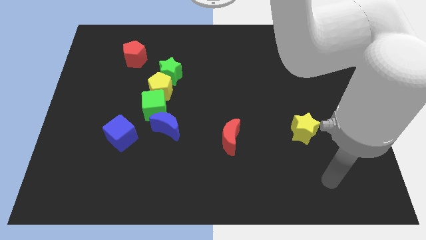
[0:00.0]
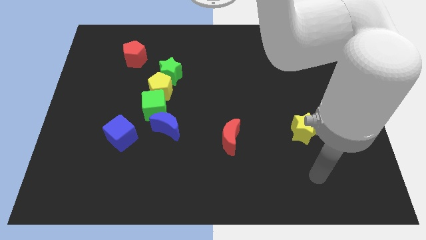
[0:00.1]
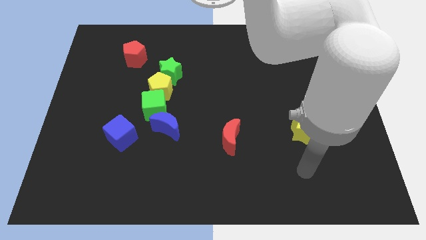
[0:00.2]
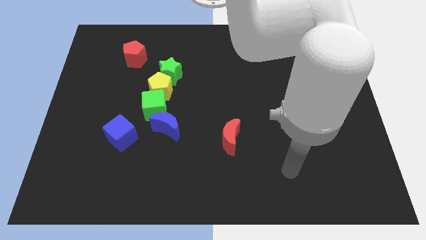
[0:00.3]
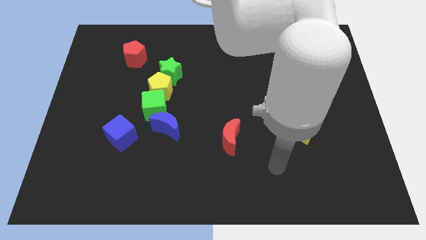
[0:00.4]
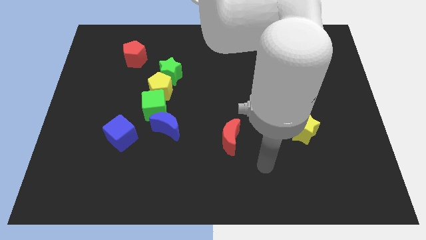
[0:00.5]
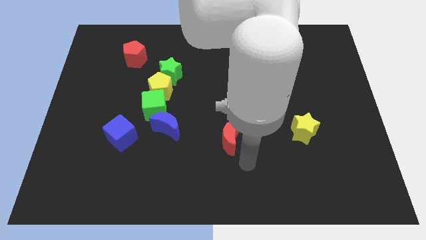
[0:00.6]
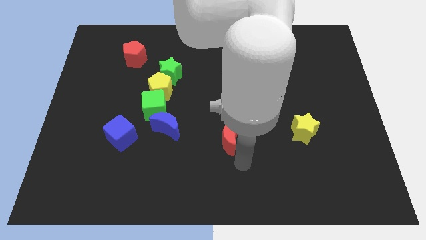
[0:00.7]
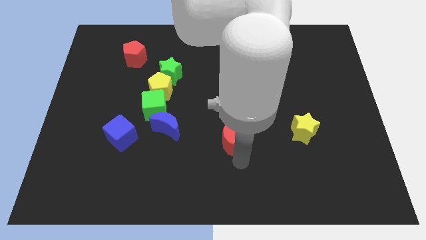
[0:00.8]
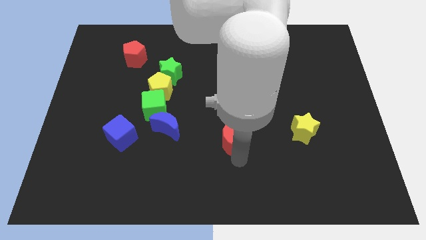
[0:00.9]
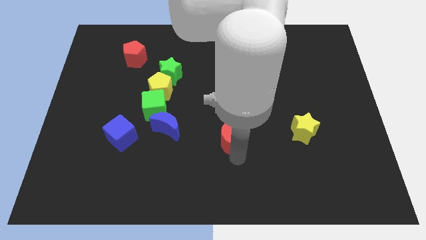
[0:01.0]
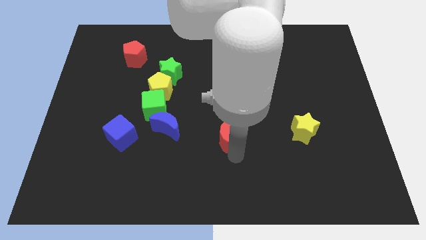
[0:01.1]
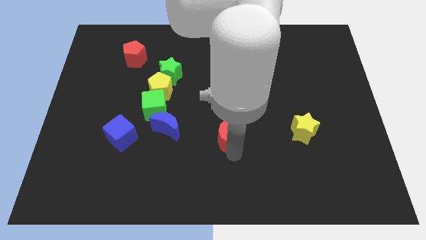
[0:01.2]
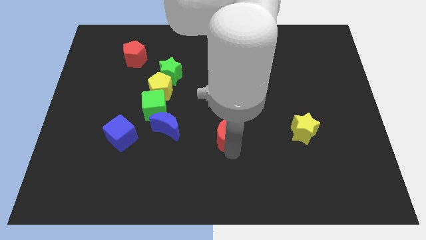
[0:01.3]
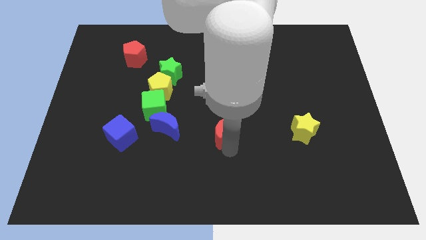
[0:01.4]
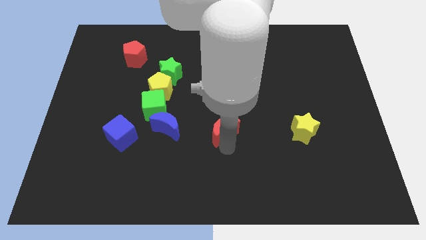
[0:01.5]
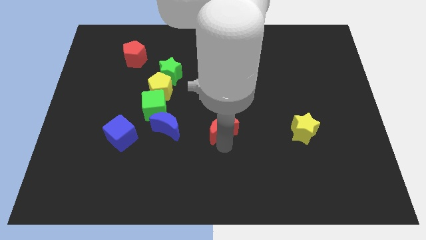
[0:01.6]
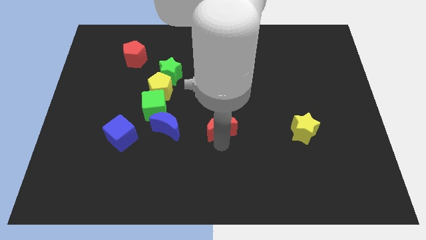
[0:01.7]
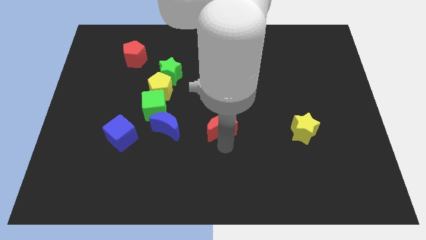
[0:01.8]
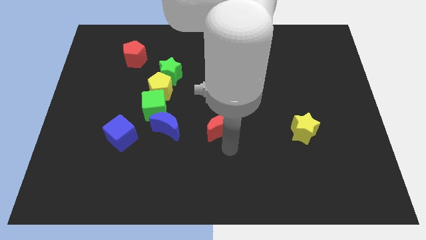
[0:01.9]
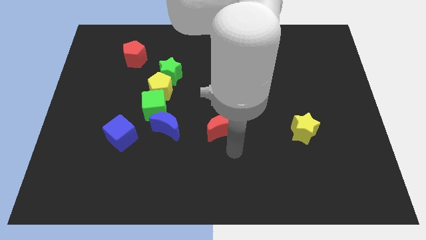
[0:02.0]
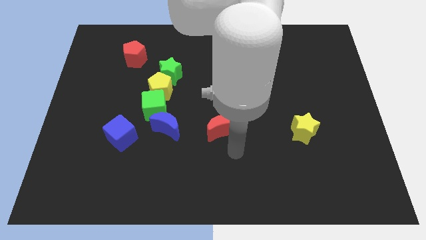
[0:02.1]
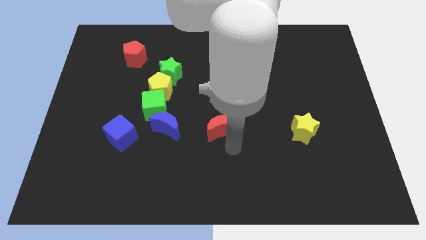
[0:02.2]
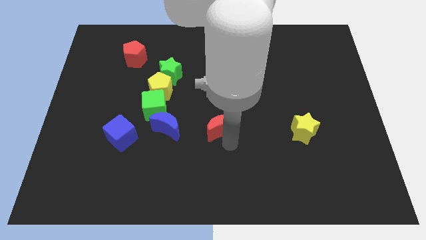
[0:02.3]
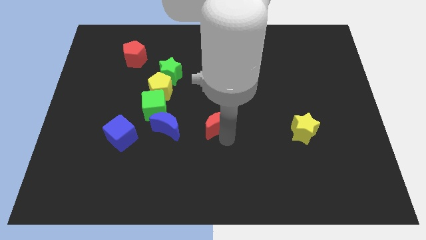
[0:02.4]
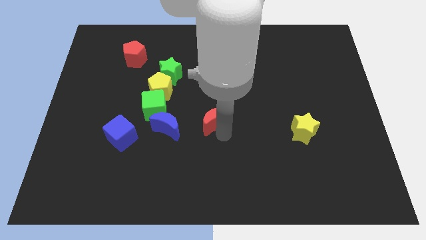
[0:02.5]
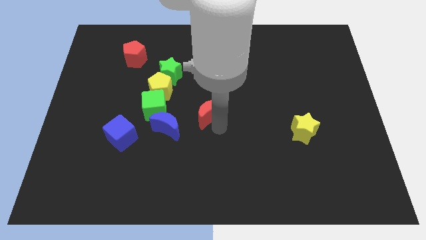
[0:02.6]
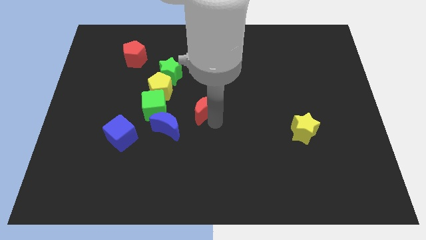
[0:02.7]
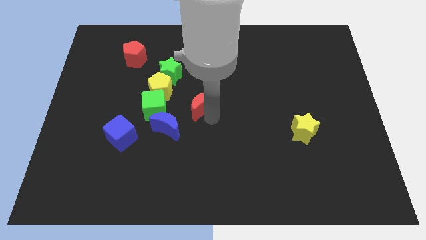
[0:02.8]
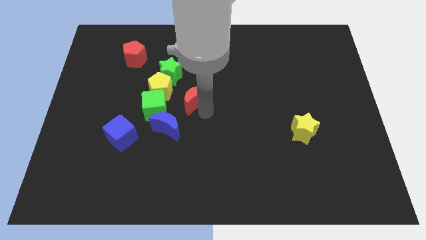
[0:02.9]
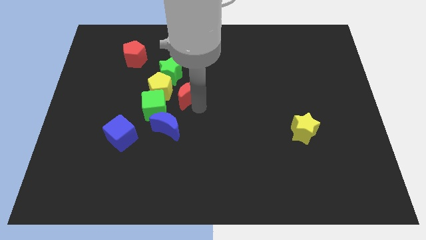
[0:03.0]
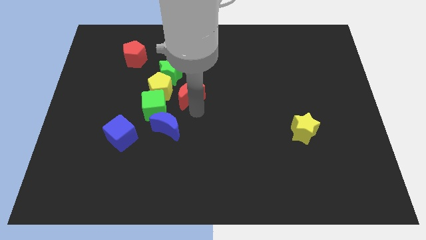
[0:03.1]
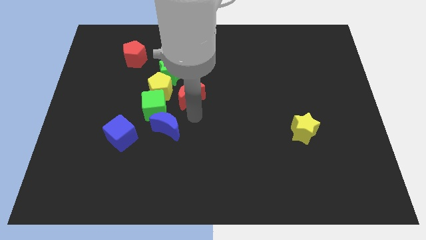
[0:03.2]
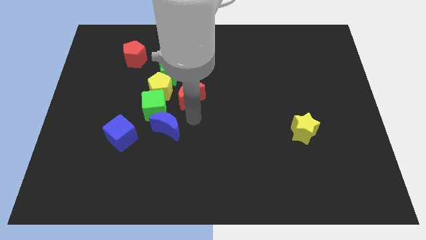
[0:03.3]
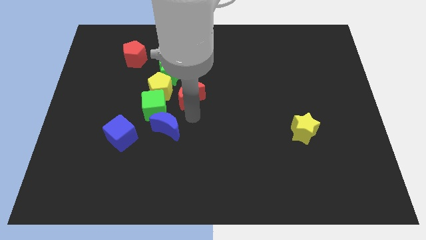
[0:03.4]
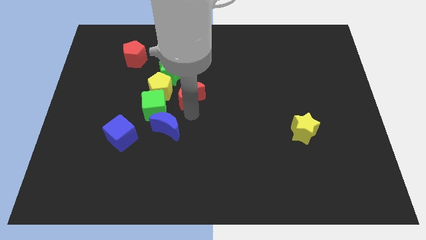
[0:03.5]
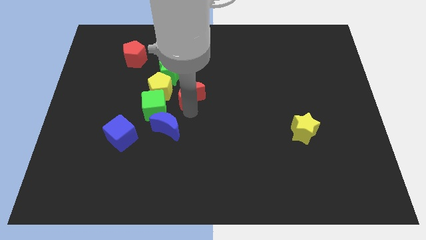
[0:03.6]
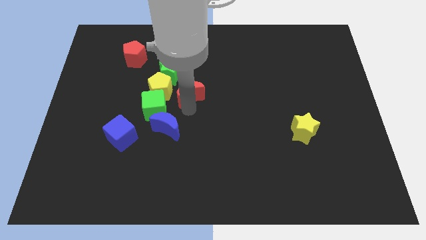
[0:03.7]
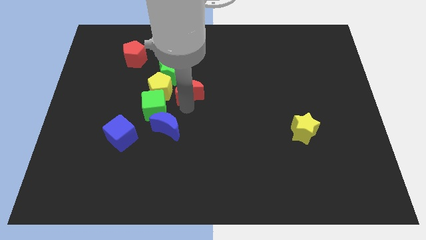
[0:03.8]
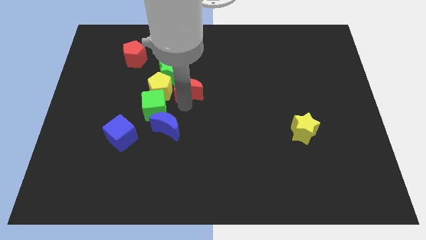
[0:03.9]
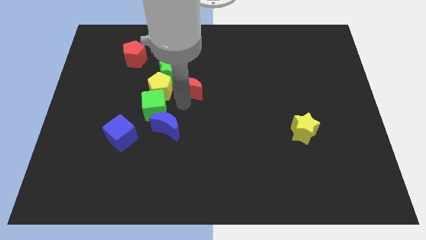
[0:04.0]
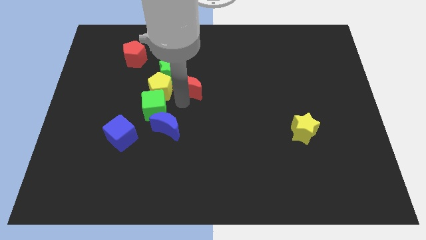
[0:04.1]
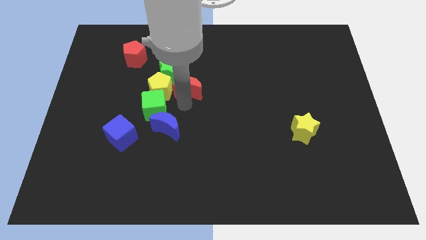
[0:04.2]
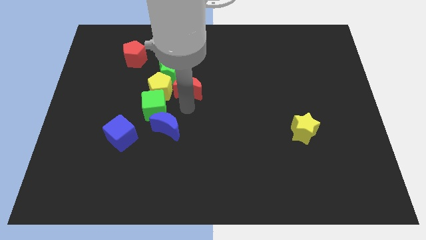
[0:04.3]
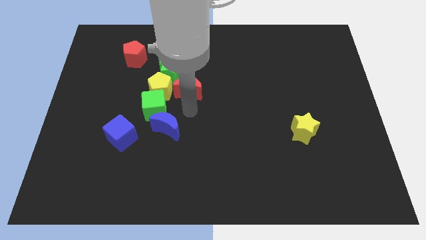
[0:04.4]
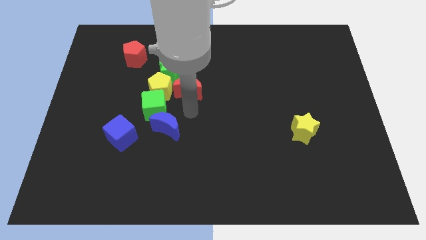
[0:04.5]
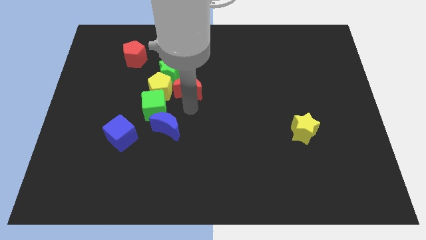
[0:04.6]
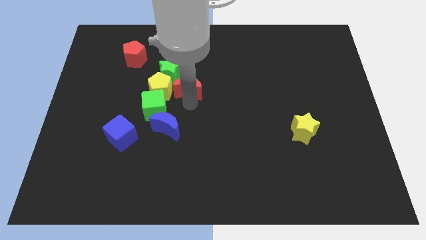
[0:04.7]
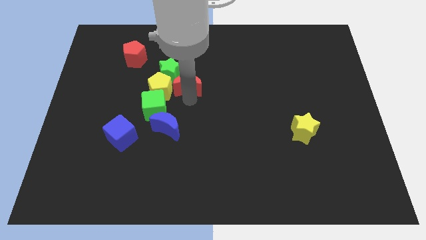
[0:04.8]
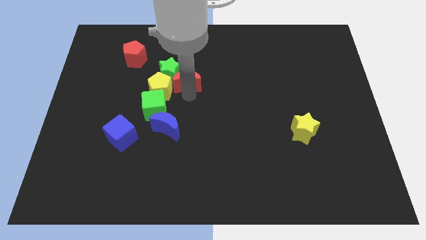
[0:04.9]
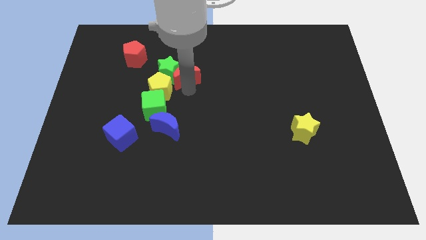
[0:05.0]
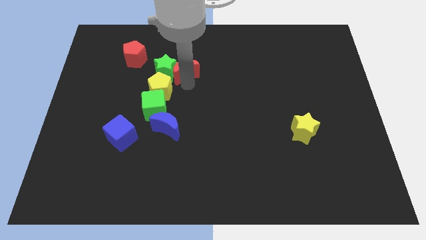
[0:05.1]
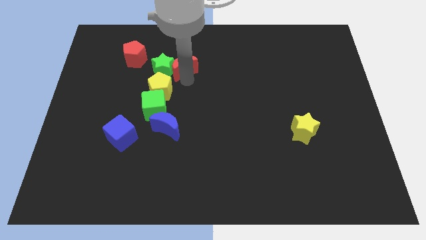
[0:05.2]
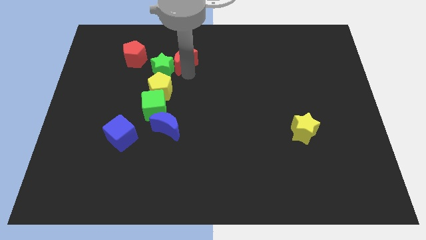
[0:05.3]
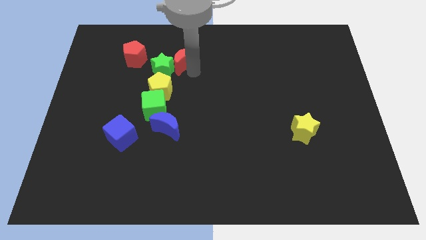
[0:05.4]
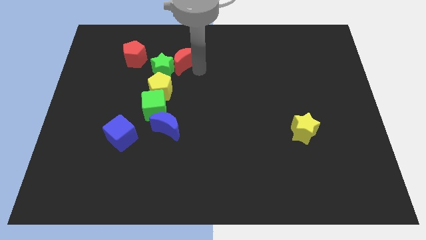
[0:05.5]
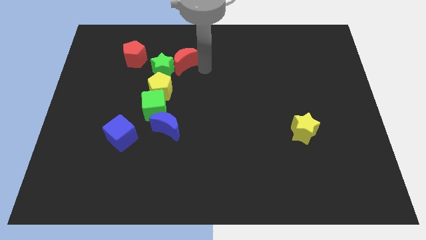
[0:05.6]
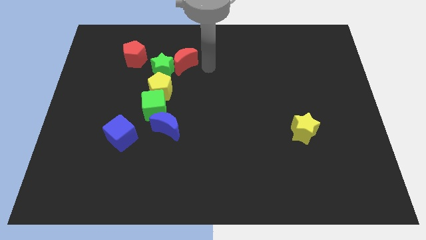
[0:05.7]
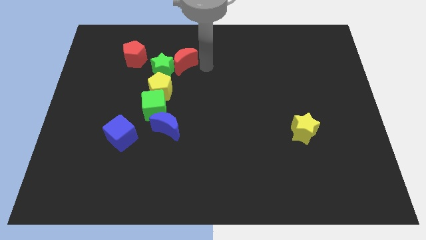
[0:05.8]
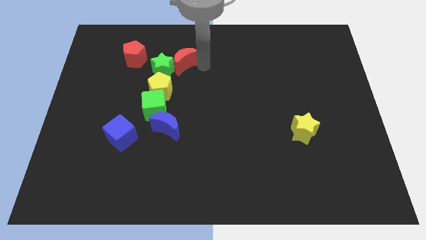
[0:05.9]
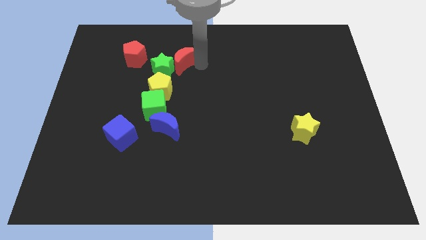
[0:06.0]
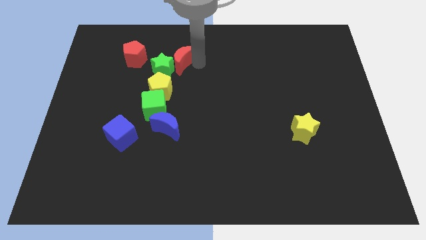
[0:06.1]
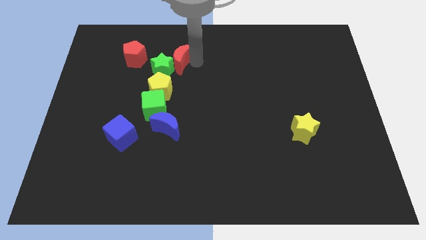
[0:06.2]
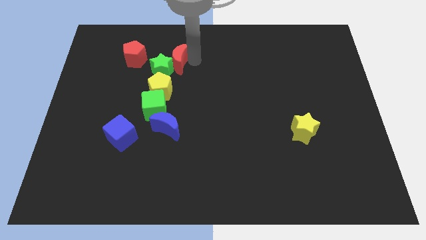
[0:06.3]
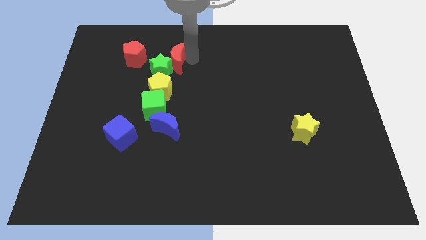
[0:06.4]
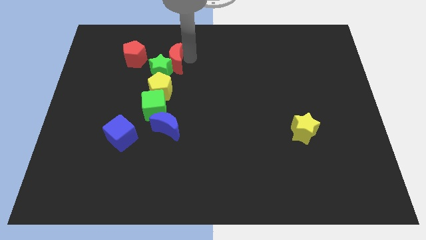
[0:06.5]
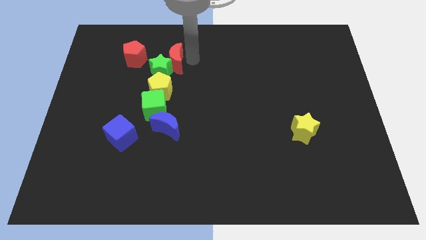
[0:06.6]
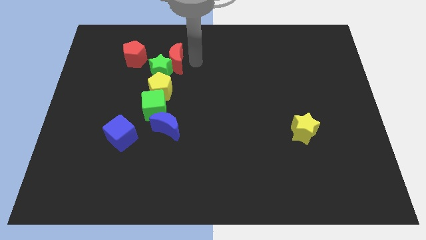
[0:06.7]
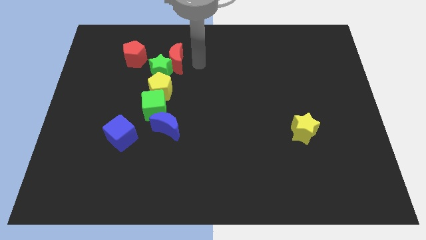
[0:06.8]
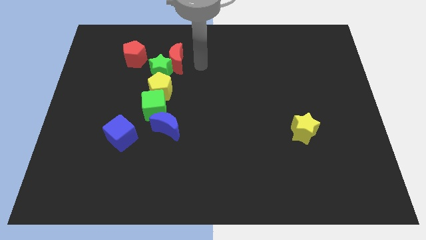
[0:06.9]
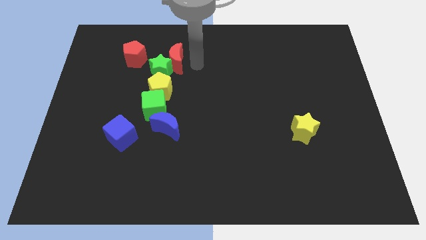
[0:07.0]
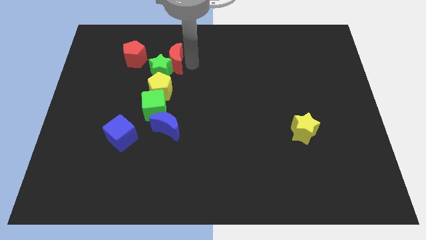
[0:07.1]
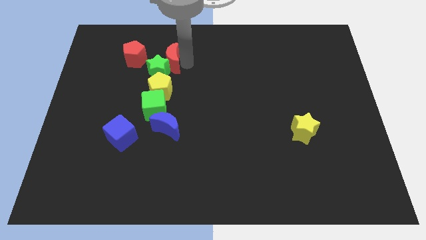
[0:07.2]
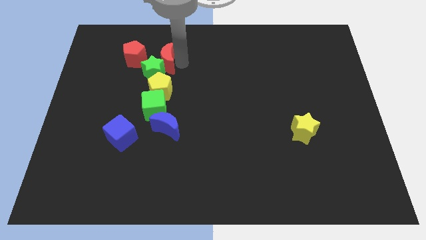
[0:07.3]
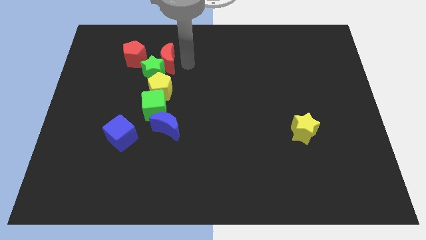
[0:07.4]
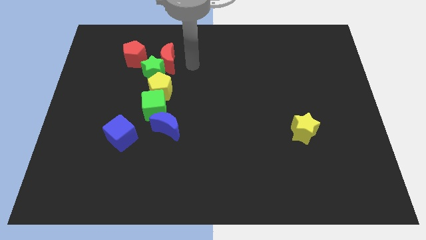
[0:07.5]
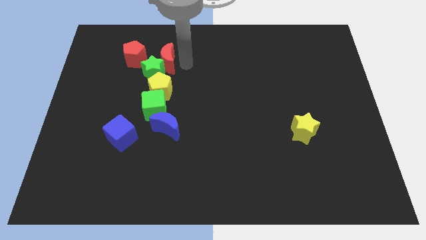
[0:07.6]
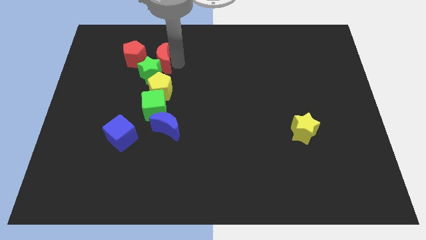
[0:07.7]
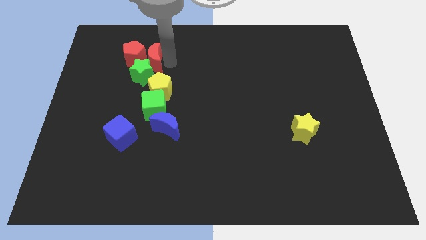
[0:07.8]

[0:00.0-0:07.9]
slide the red moon close to the red pentagon
